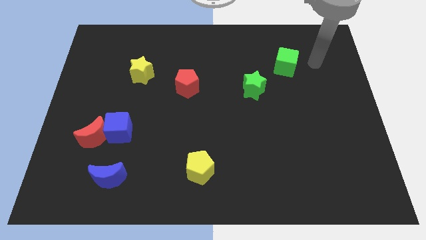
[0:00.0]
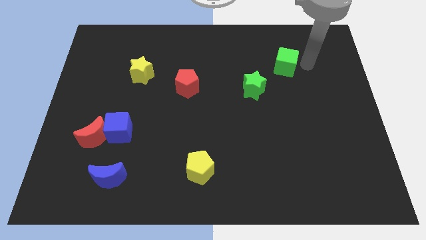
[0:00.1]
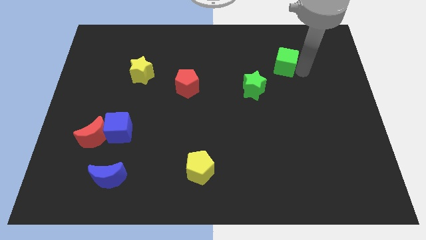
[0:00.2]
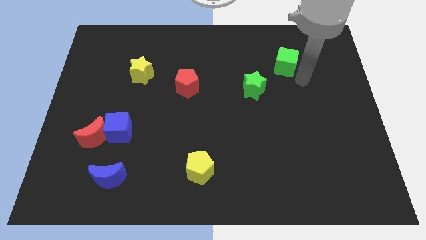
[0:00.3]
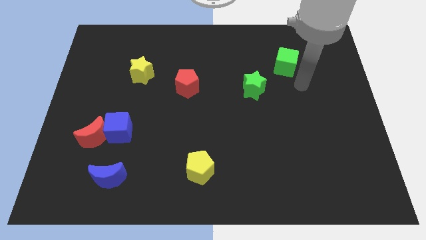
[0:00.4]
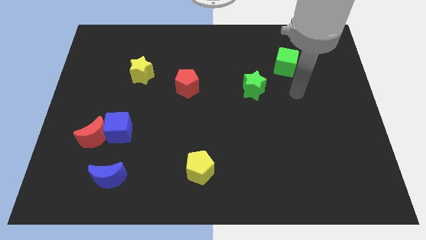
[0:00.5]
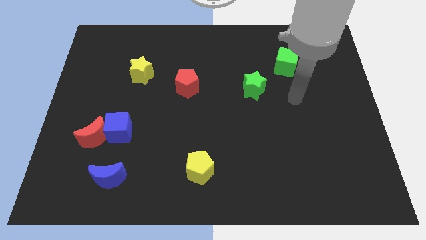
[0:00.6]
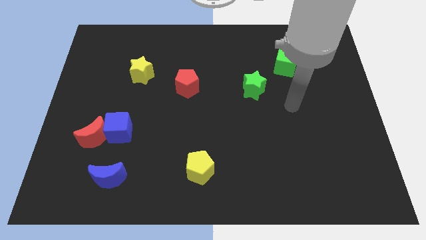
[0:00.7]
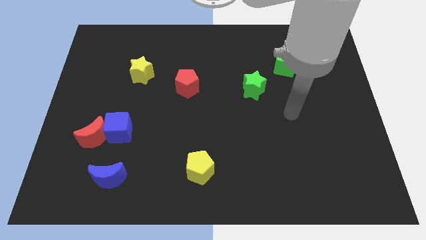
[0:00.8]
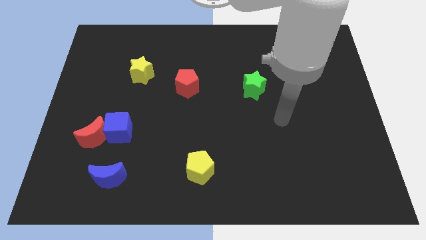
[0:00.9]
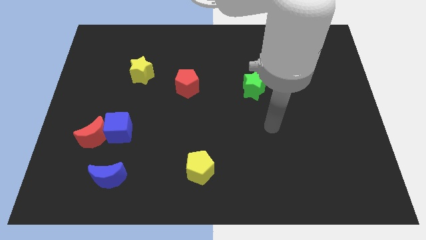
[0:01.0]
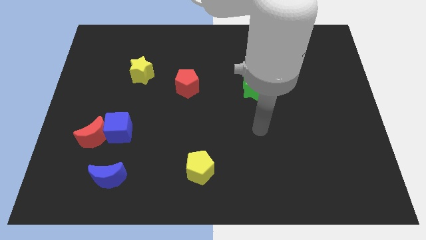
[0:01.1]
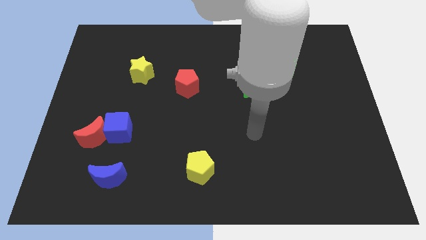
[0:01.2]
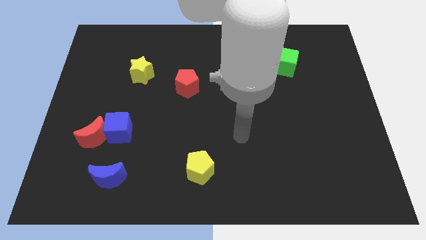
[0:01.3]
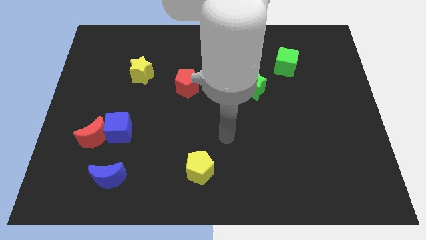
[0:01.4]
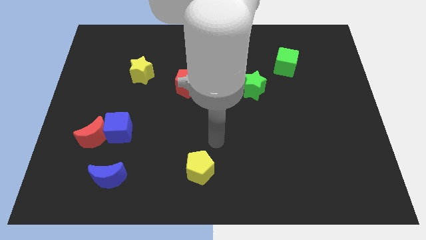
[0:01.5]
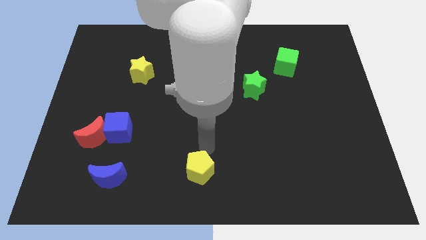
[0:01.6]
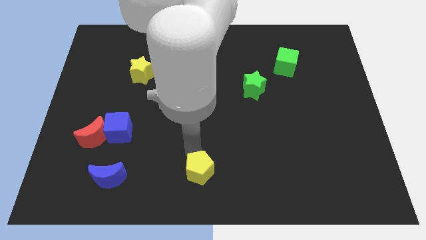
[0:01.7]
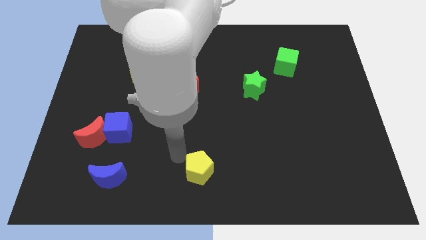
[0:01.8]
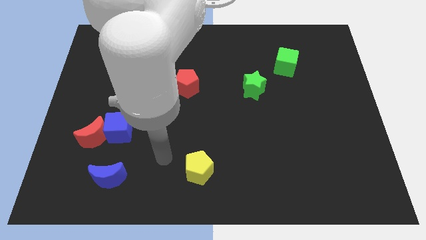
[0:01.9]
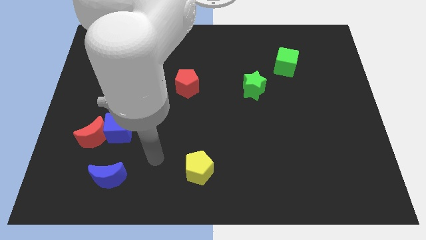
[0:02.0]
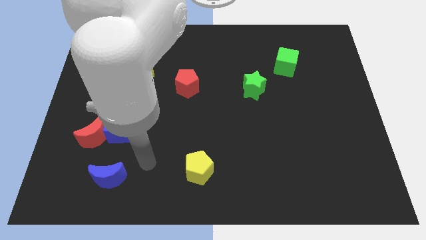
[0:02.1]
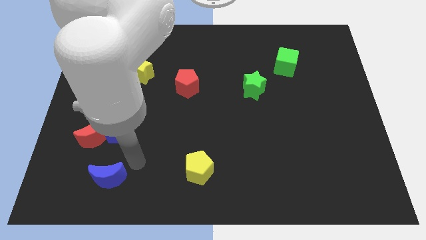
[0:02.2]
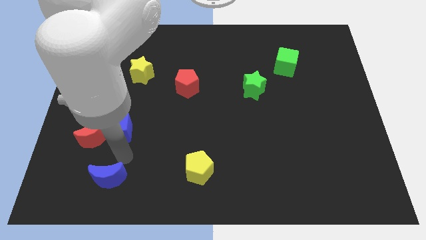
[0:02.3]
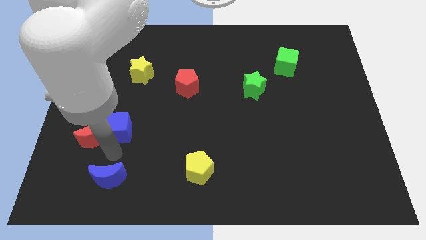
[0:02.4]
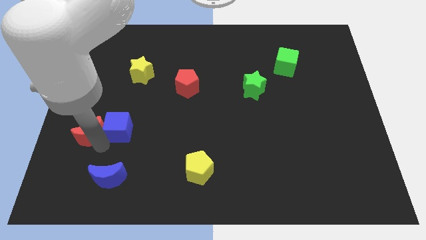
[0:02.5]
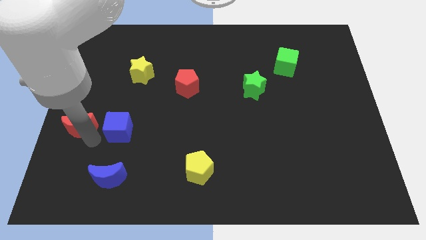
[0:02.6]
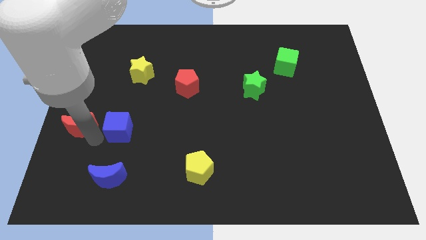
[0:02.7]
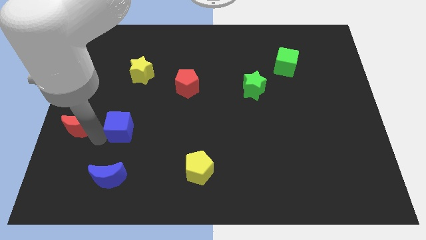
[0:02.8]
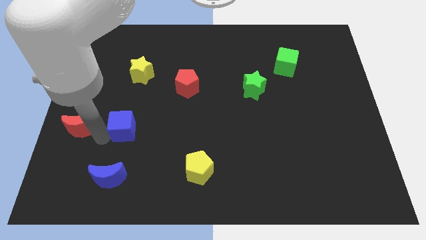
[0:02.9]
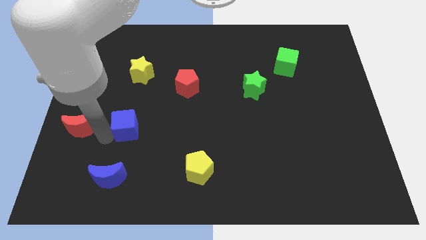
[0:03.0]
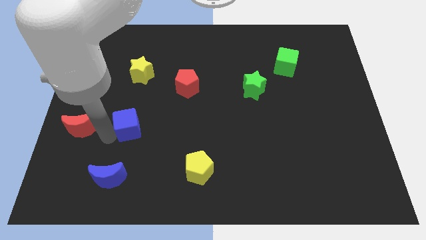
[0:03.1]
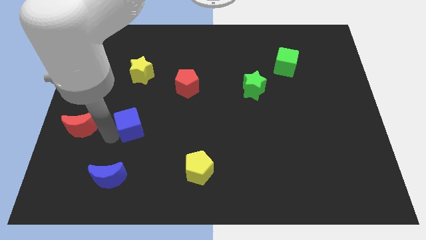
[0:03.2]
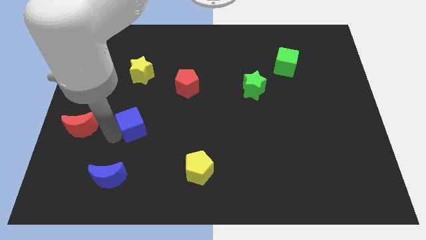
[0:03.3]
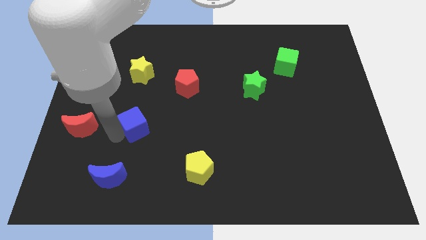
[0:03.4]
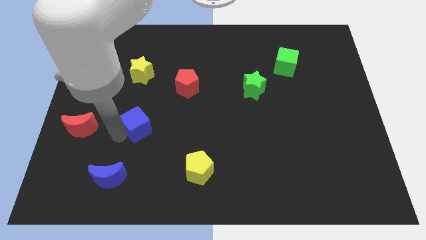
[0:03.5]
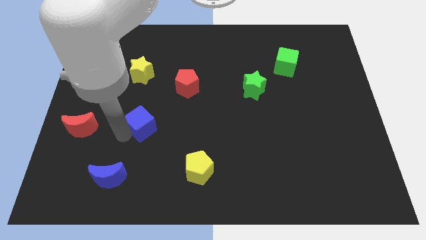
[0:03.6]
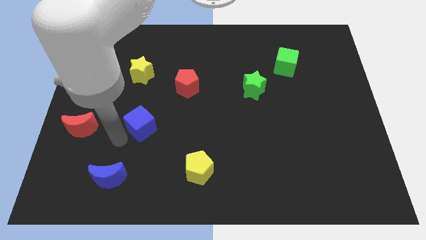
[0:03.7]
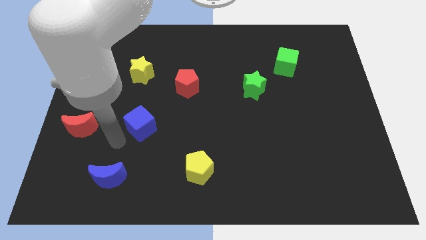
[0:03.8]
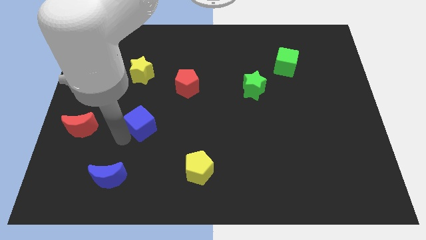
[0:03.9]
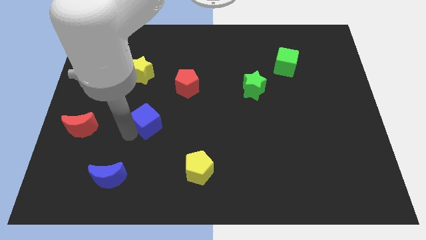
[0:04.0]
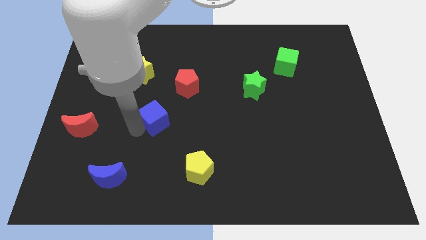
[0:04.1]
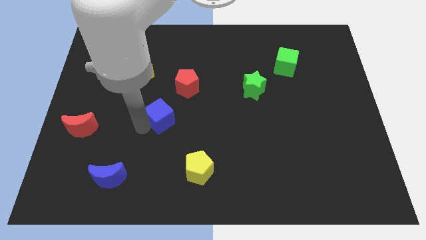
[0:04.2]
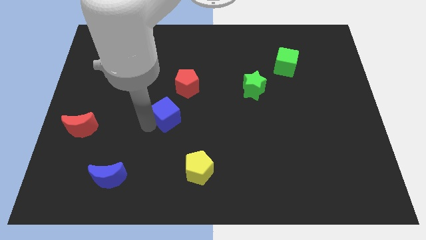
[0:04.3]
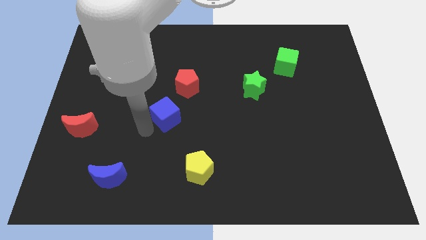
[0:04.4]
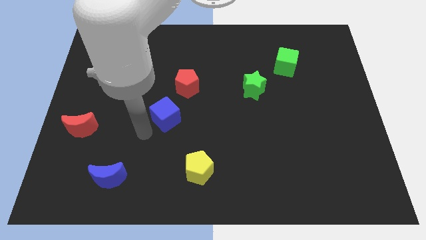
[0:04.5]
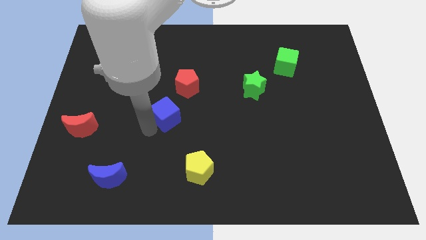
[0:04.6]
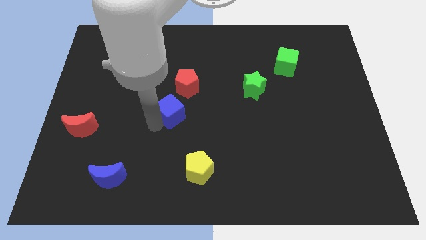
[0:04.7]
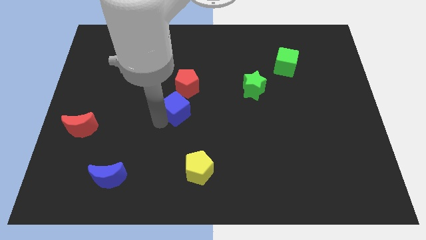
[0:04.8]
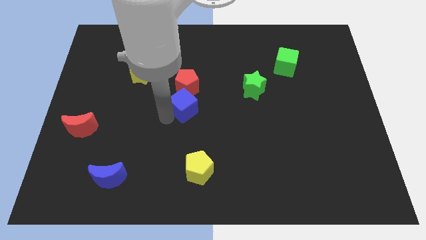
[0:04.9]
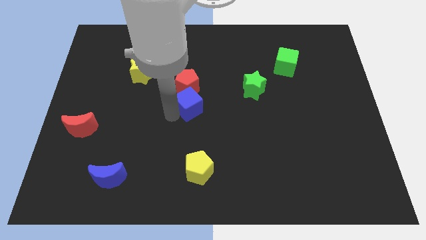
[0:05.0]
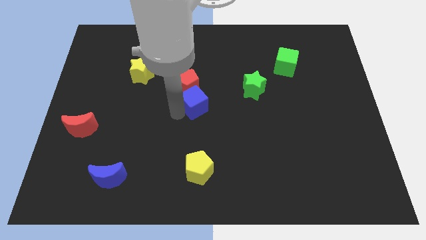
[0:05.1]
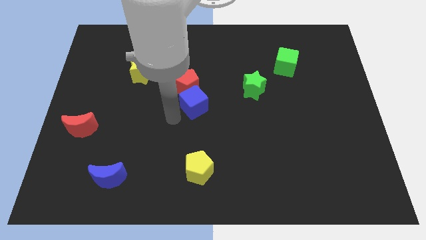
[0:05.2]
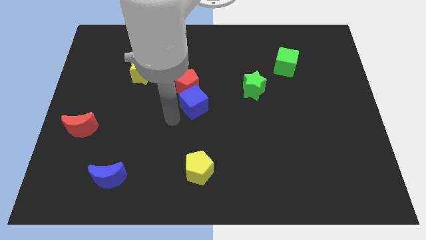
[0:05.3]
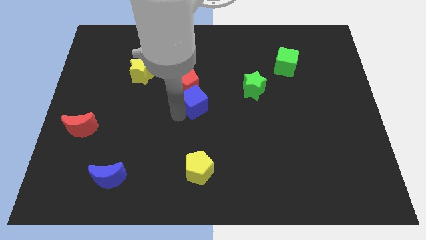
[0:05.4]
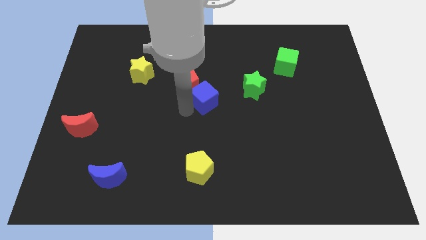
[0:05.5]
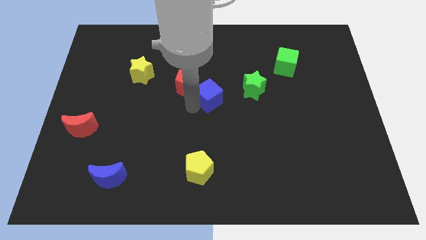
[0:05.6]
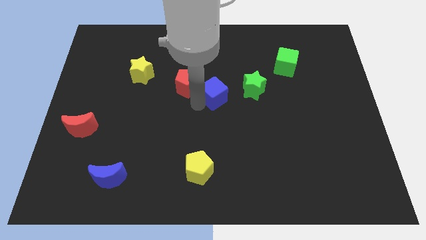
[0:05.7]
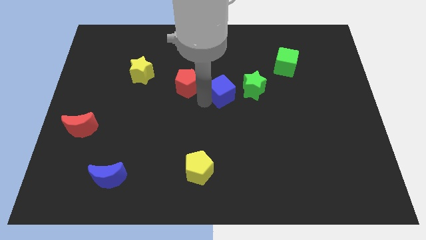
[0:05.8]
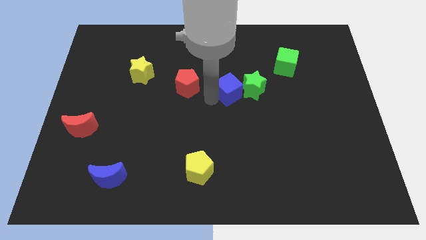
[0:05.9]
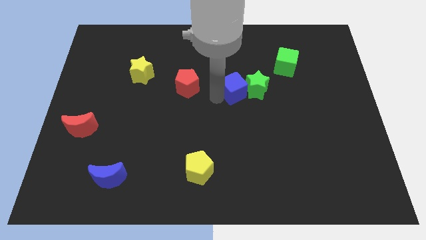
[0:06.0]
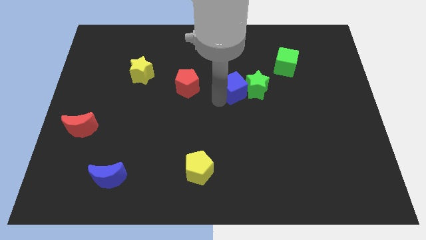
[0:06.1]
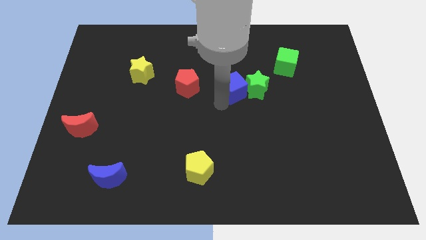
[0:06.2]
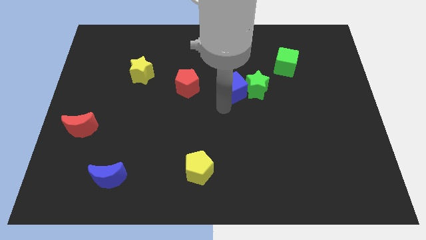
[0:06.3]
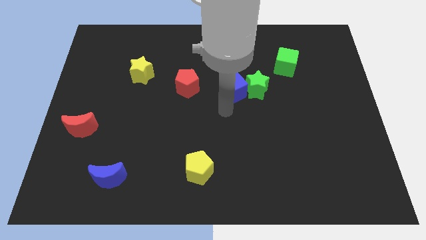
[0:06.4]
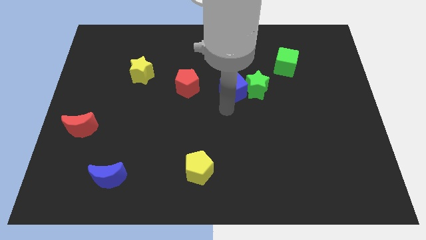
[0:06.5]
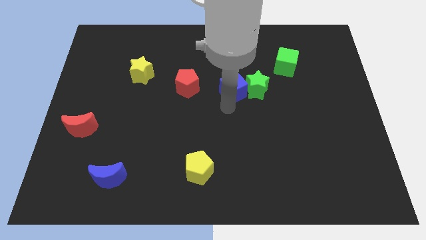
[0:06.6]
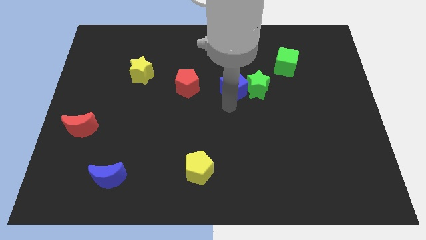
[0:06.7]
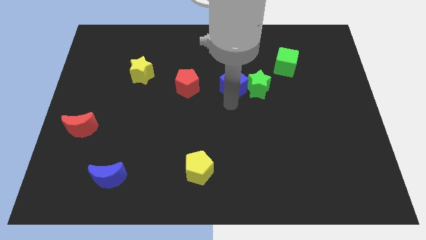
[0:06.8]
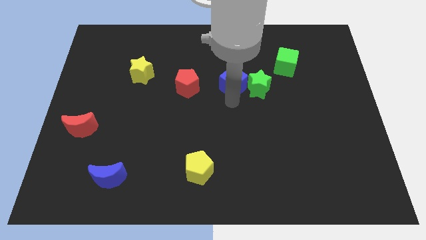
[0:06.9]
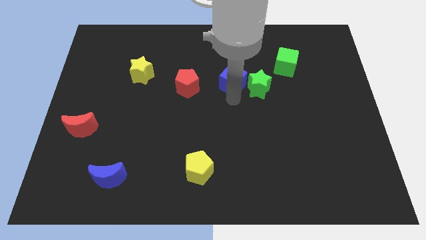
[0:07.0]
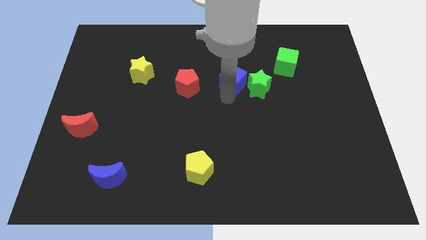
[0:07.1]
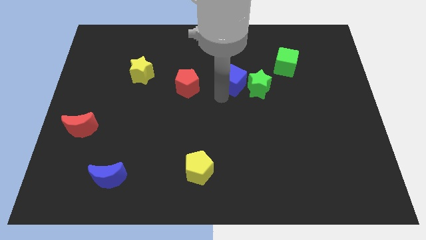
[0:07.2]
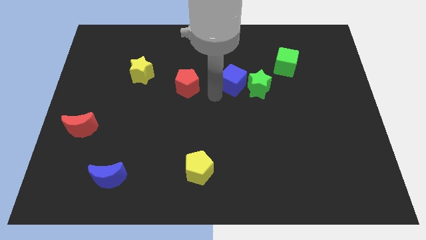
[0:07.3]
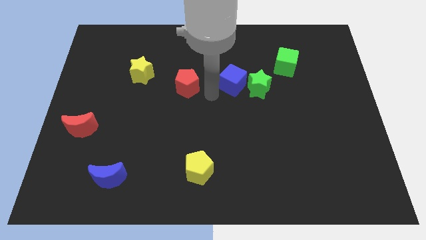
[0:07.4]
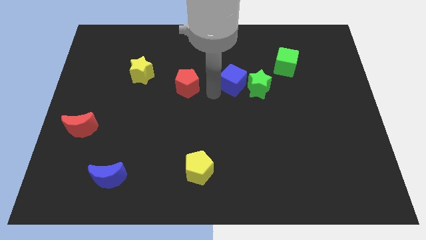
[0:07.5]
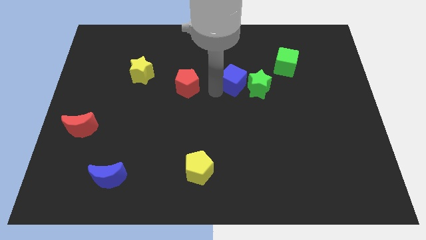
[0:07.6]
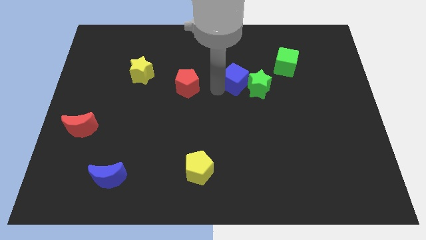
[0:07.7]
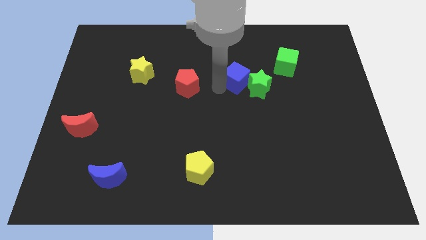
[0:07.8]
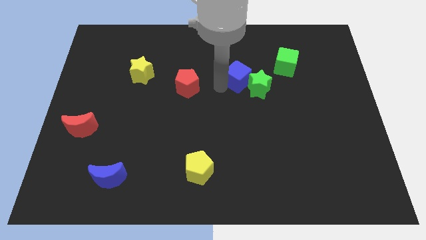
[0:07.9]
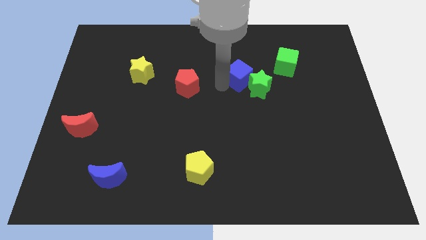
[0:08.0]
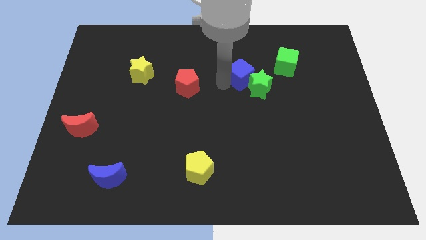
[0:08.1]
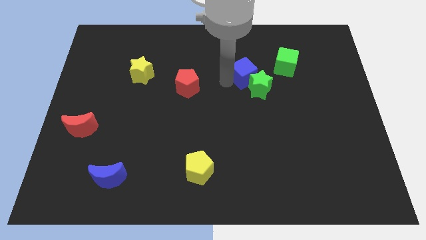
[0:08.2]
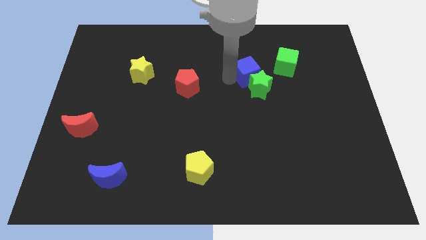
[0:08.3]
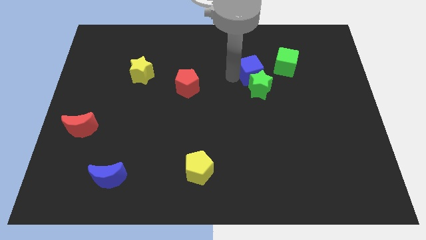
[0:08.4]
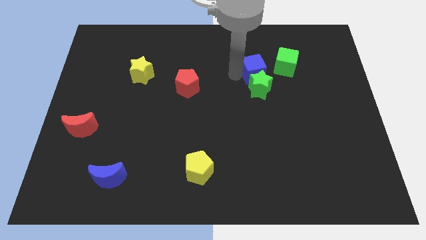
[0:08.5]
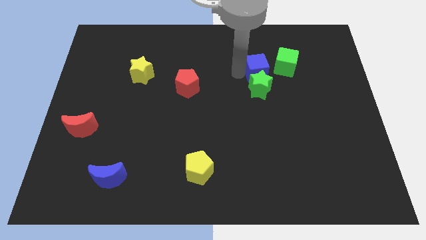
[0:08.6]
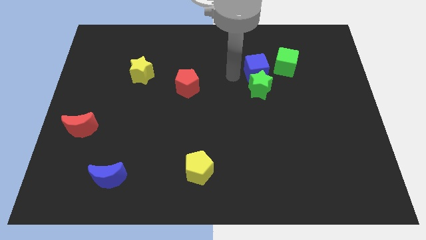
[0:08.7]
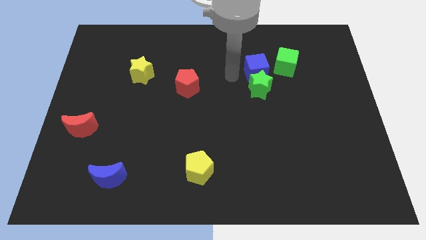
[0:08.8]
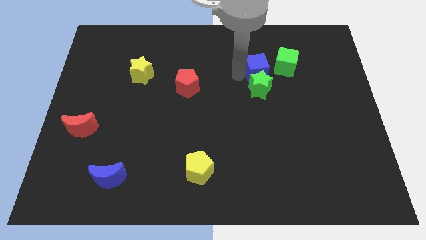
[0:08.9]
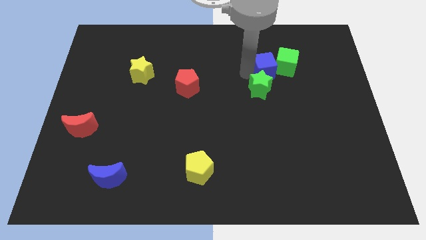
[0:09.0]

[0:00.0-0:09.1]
move the blue cube next to the green cube
